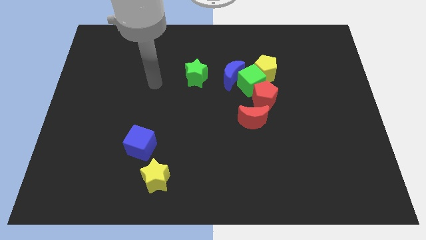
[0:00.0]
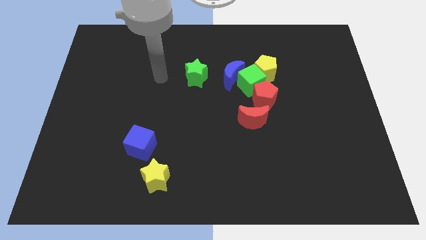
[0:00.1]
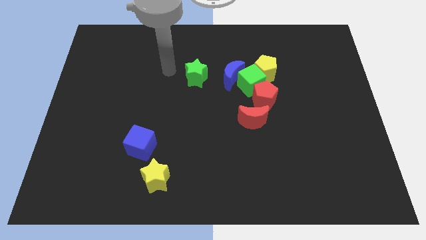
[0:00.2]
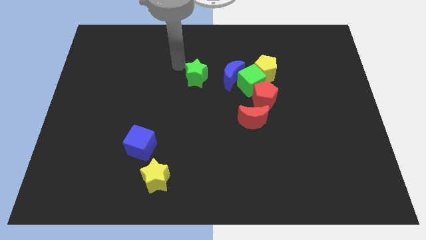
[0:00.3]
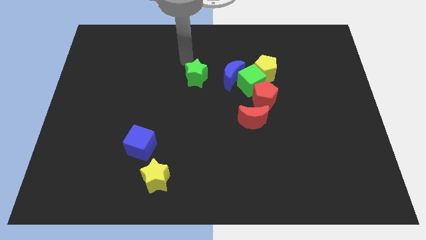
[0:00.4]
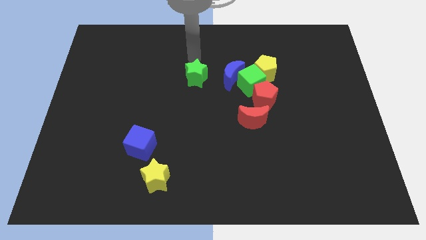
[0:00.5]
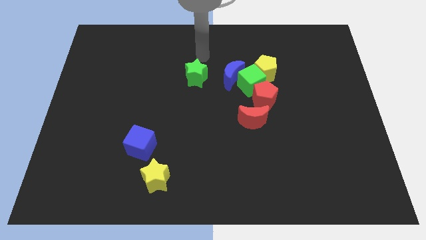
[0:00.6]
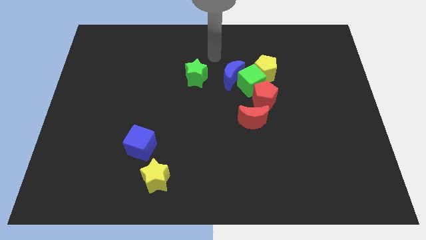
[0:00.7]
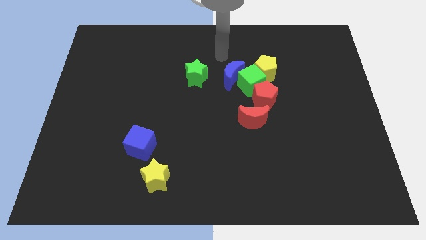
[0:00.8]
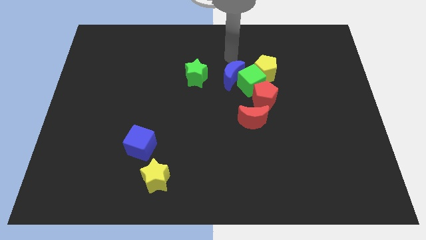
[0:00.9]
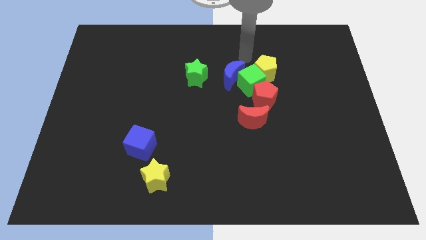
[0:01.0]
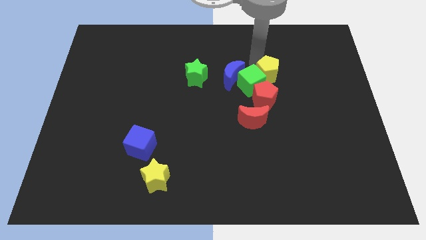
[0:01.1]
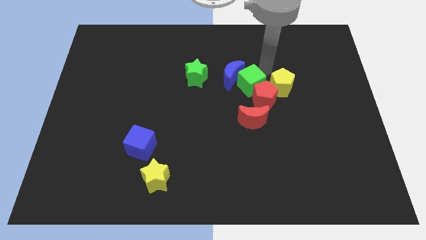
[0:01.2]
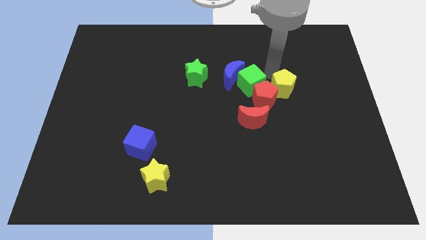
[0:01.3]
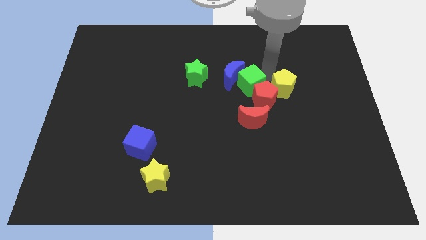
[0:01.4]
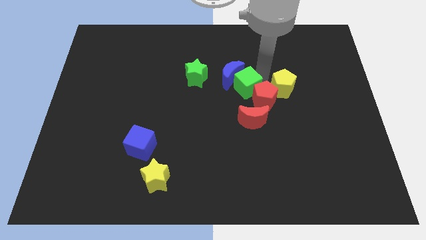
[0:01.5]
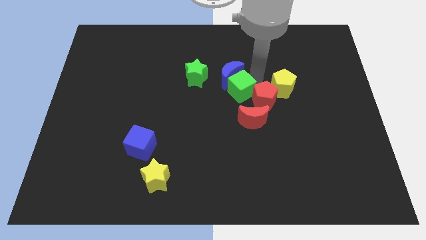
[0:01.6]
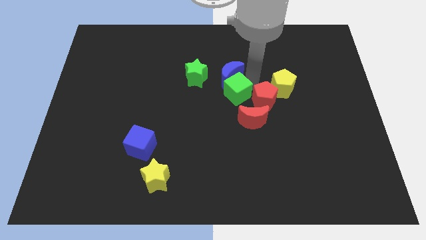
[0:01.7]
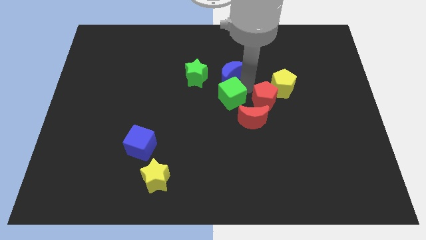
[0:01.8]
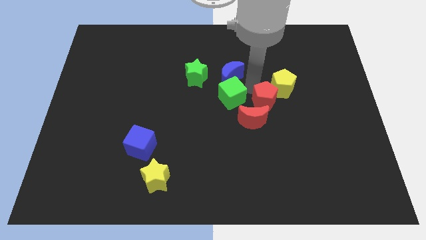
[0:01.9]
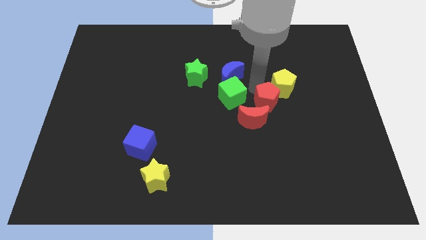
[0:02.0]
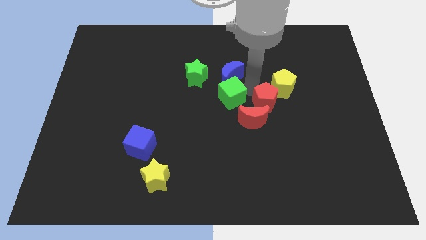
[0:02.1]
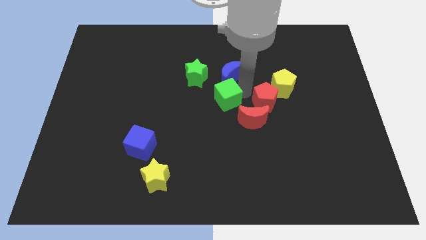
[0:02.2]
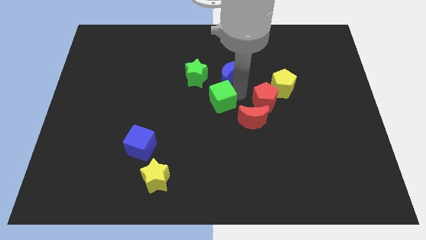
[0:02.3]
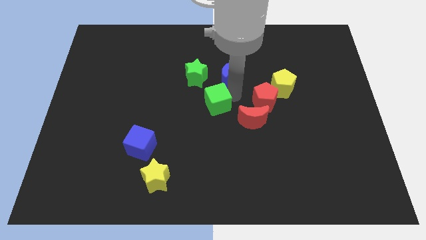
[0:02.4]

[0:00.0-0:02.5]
separate the green cube from the blue moon, yellow pentagon, and red pentagon

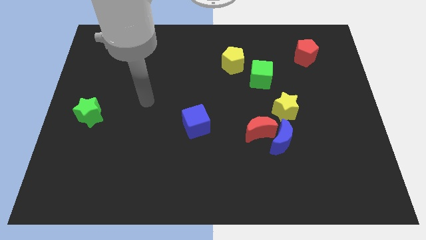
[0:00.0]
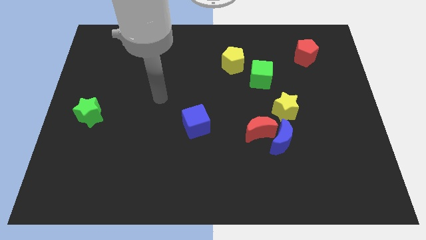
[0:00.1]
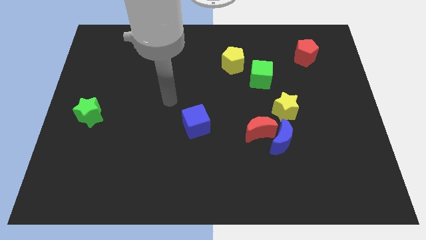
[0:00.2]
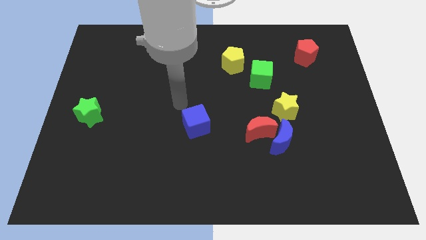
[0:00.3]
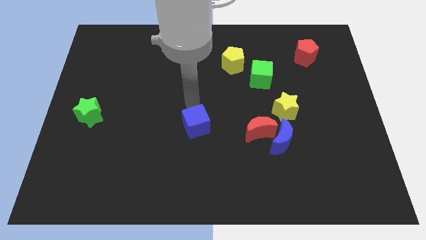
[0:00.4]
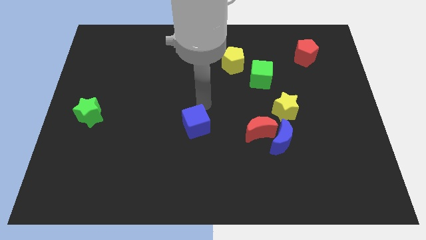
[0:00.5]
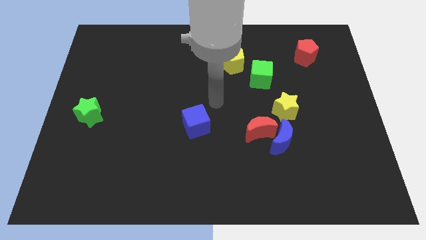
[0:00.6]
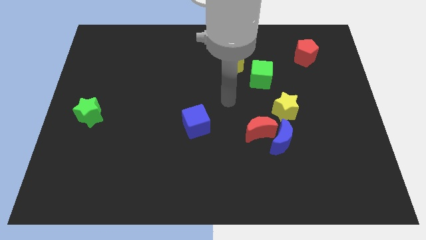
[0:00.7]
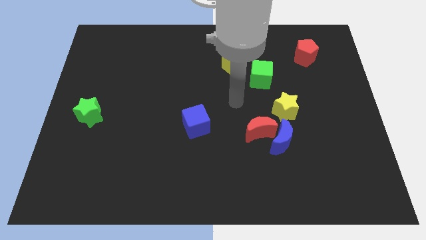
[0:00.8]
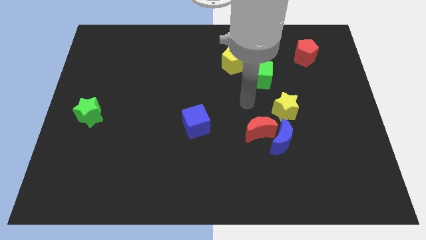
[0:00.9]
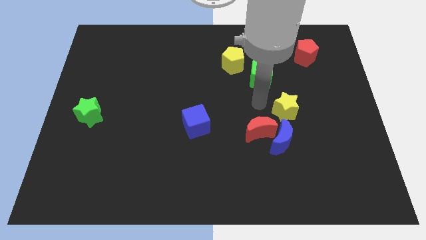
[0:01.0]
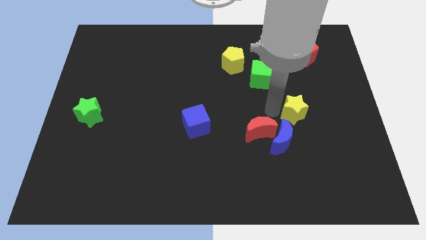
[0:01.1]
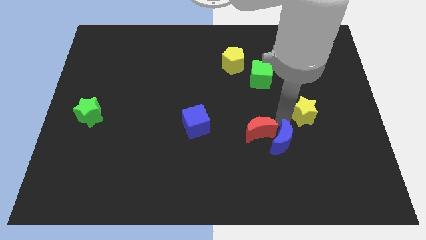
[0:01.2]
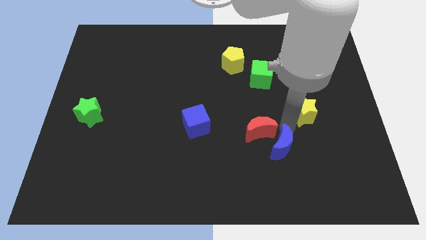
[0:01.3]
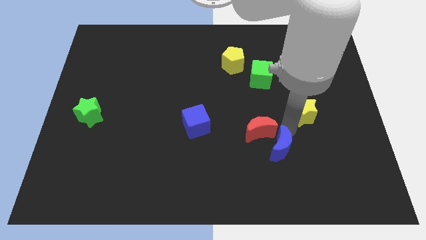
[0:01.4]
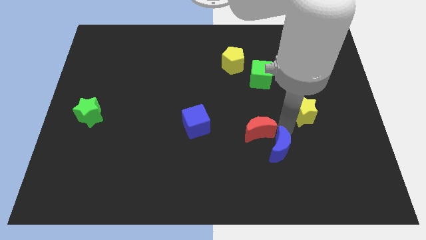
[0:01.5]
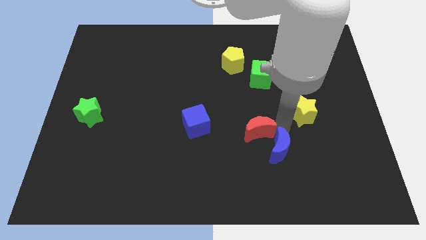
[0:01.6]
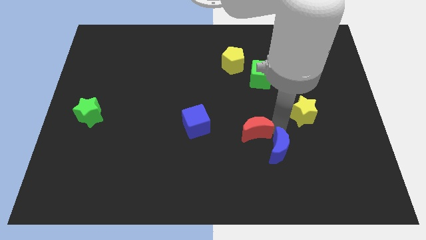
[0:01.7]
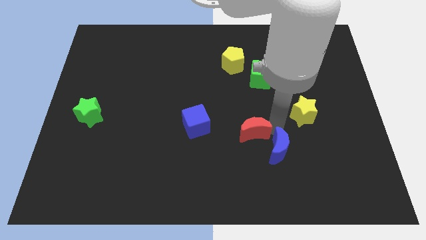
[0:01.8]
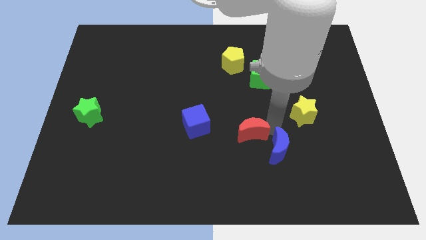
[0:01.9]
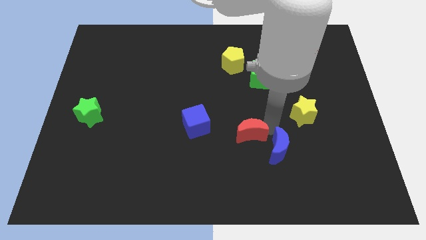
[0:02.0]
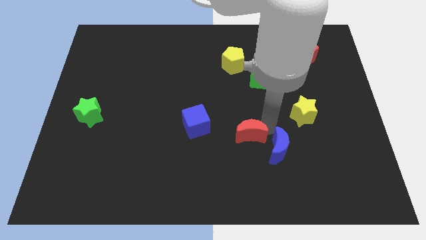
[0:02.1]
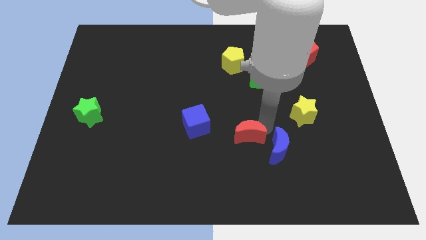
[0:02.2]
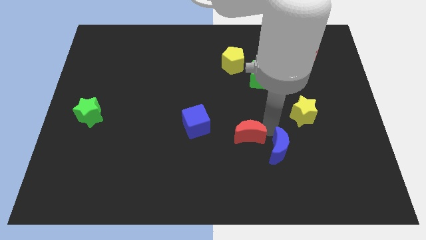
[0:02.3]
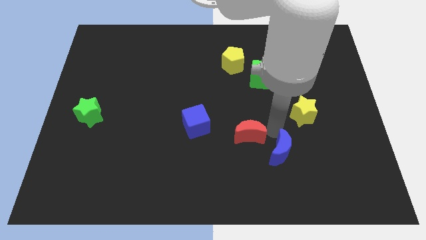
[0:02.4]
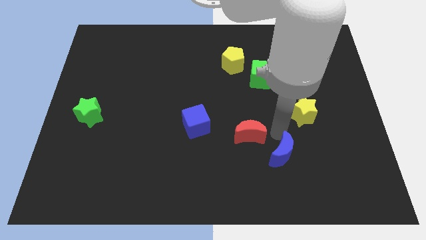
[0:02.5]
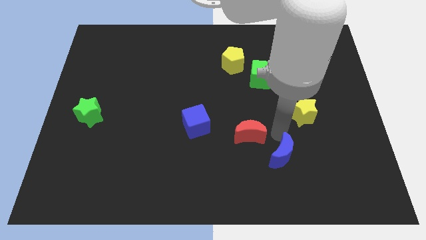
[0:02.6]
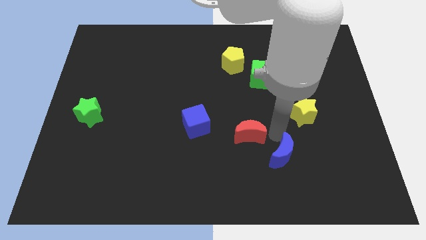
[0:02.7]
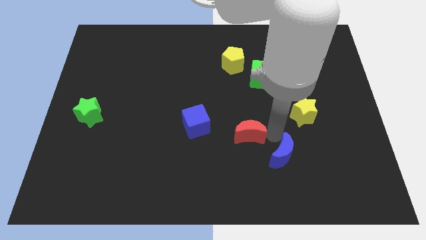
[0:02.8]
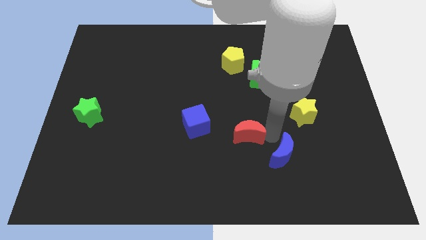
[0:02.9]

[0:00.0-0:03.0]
separate the red moon from the blue moon and yellow star

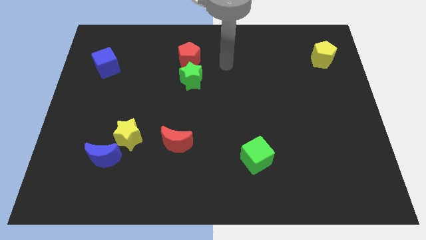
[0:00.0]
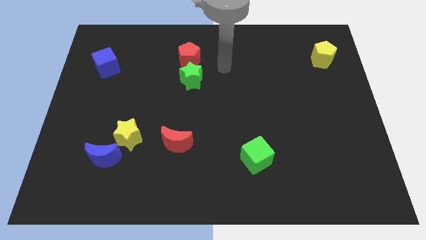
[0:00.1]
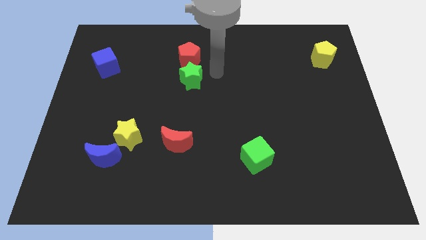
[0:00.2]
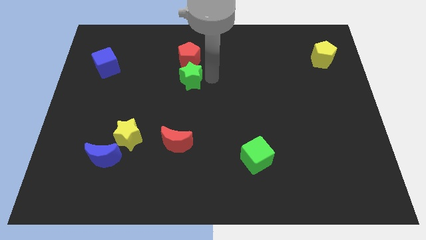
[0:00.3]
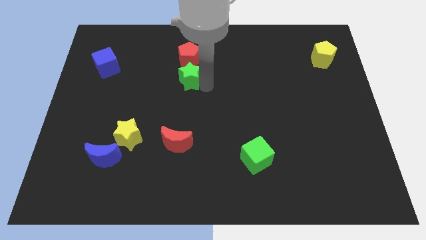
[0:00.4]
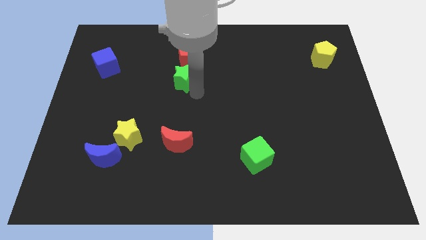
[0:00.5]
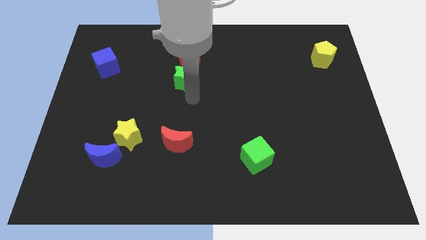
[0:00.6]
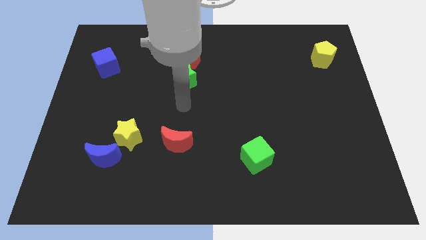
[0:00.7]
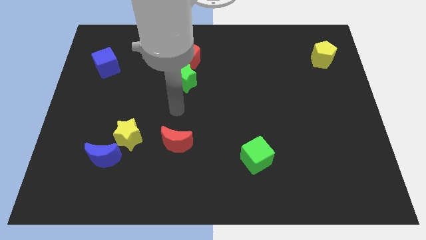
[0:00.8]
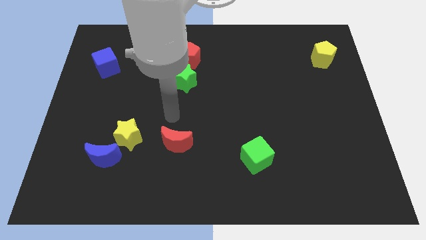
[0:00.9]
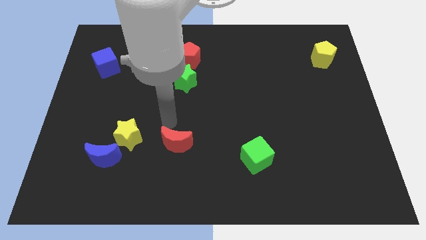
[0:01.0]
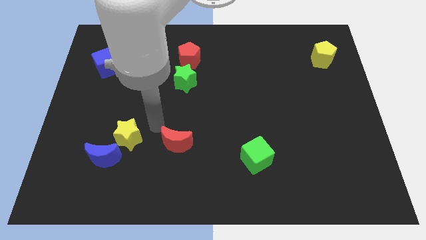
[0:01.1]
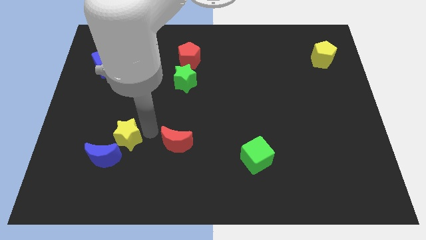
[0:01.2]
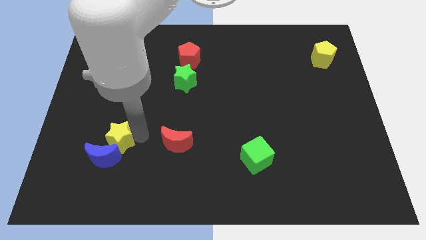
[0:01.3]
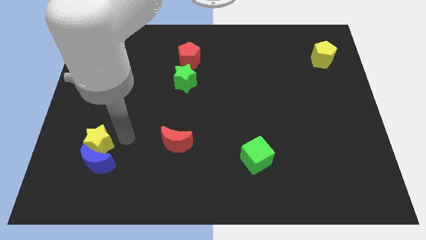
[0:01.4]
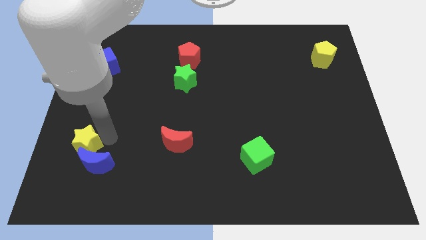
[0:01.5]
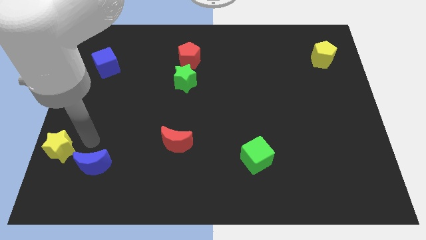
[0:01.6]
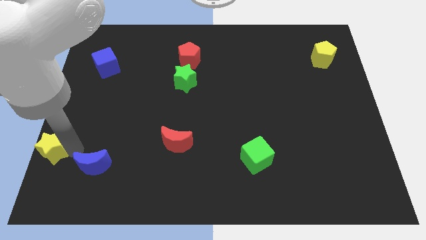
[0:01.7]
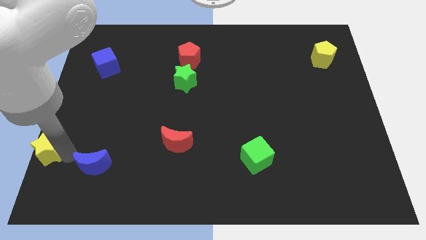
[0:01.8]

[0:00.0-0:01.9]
move the blue moon away from the yellow star

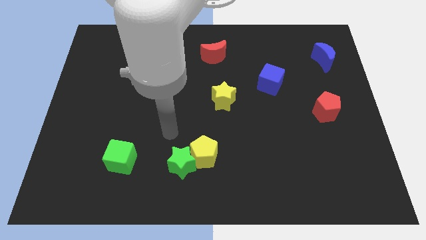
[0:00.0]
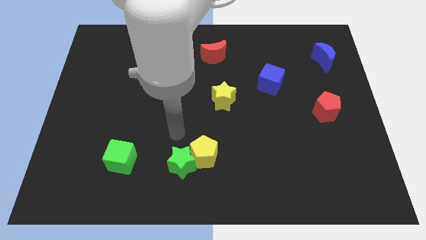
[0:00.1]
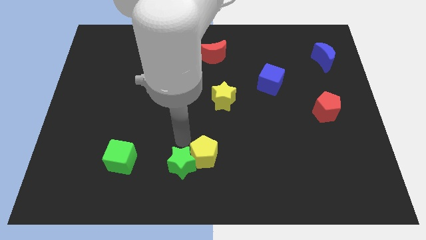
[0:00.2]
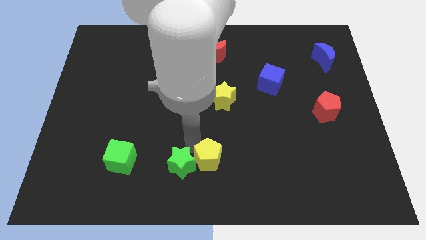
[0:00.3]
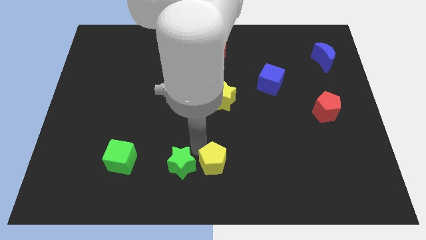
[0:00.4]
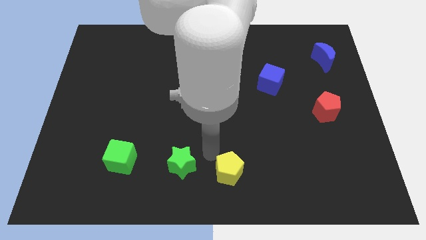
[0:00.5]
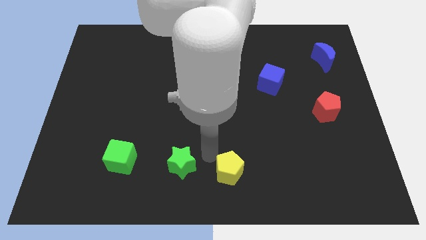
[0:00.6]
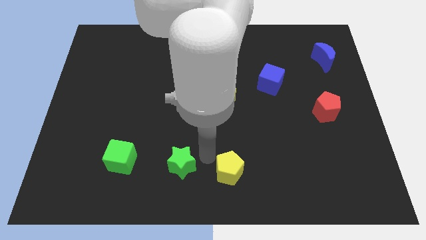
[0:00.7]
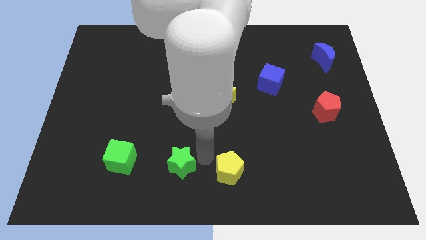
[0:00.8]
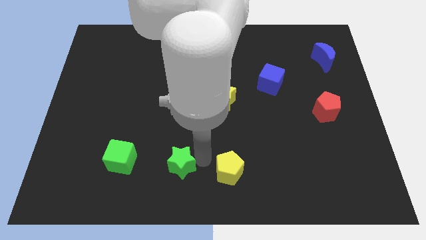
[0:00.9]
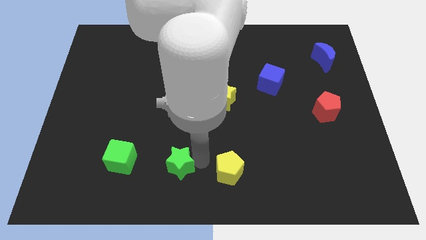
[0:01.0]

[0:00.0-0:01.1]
move the green star away from the yellow pentagon

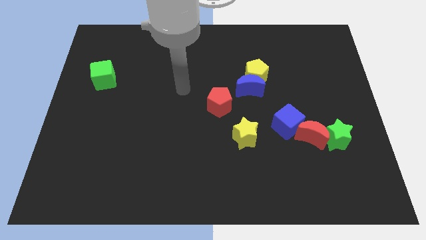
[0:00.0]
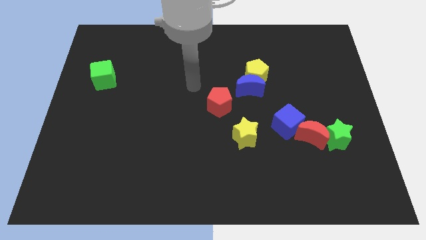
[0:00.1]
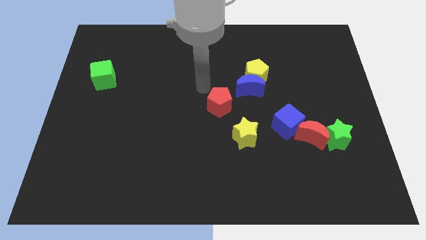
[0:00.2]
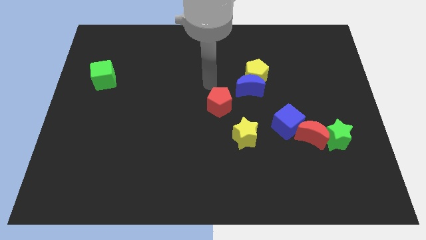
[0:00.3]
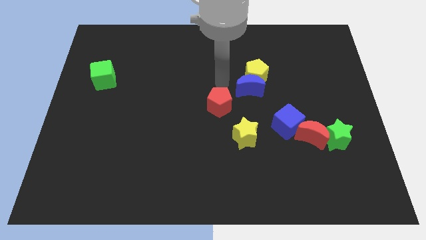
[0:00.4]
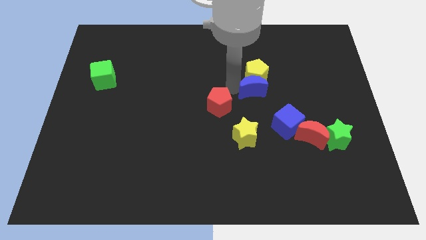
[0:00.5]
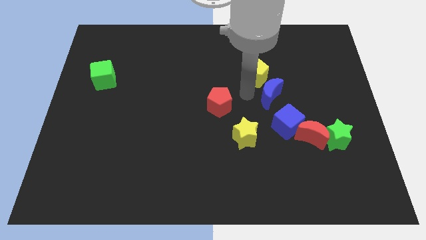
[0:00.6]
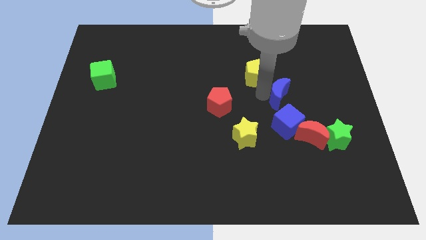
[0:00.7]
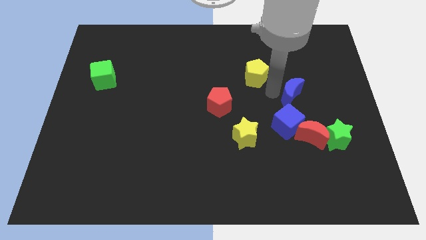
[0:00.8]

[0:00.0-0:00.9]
move the yellow pentagon away from the blue moon
